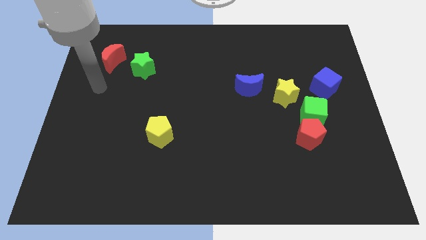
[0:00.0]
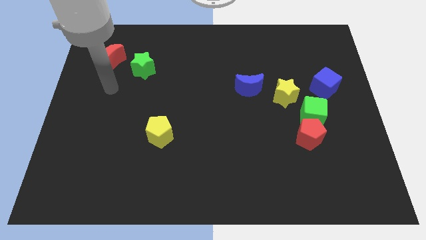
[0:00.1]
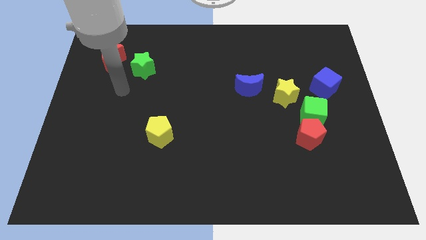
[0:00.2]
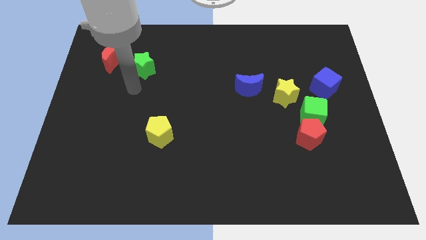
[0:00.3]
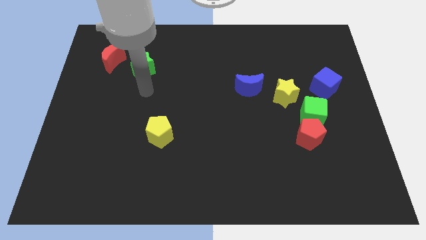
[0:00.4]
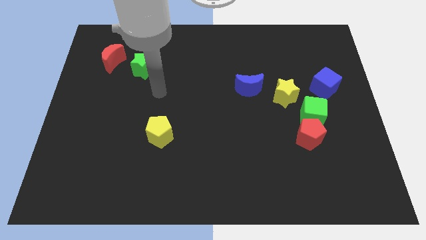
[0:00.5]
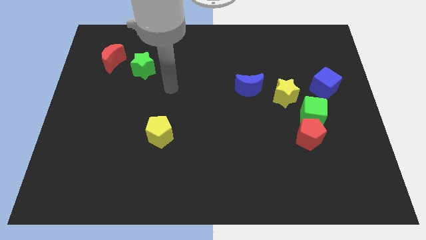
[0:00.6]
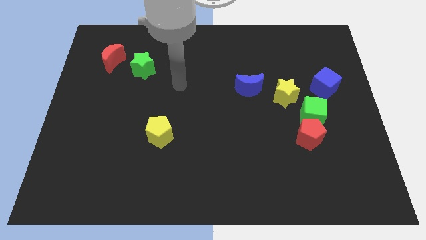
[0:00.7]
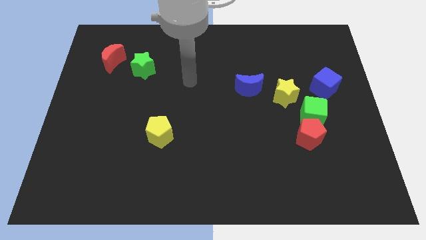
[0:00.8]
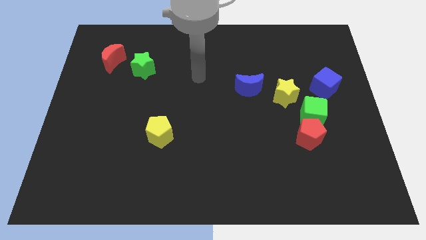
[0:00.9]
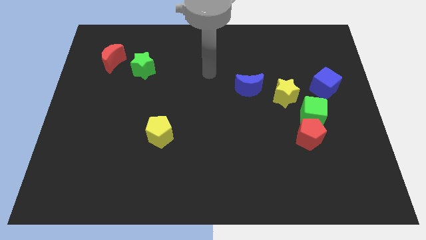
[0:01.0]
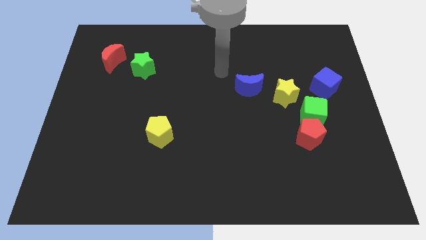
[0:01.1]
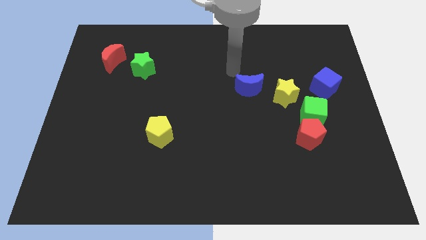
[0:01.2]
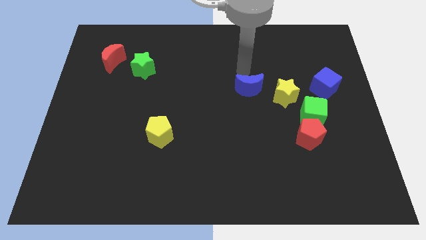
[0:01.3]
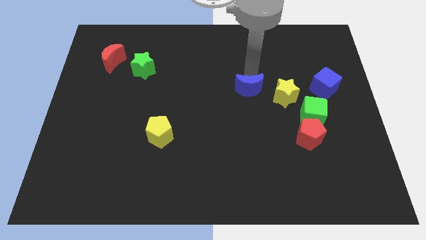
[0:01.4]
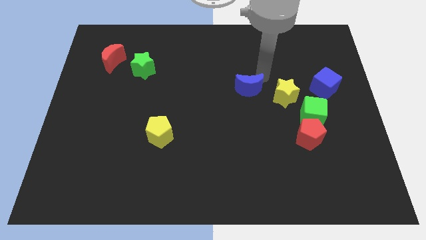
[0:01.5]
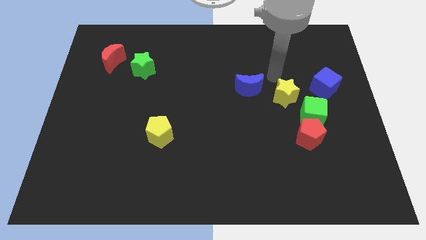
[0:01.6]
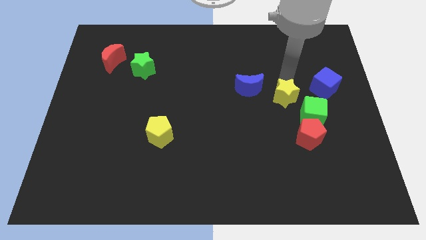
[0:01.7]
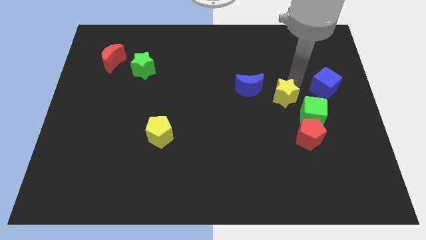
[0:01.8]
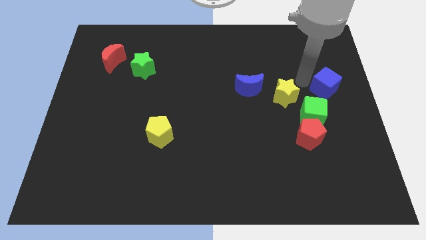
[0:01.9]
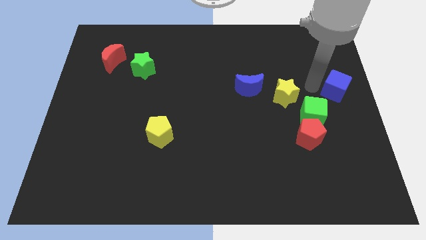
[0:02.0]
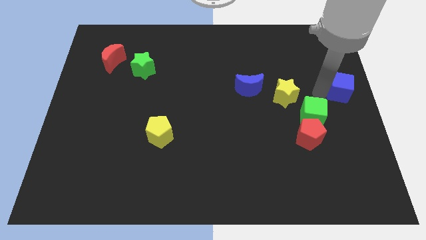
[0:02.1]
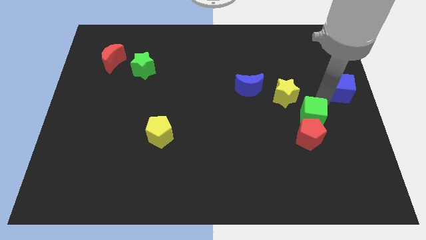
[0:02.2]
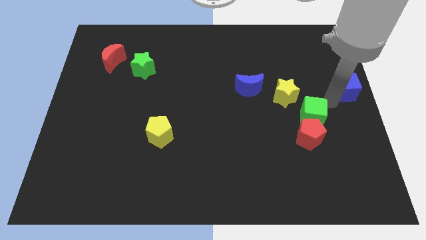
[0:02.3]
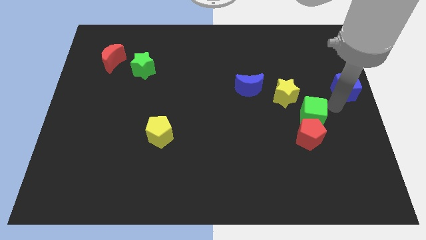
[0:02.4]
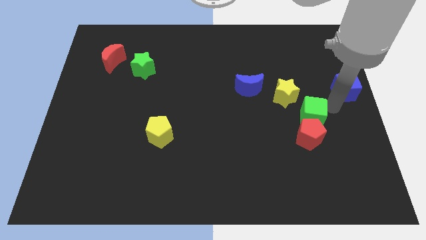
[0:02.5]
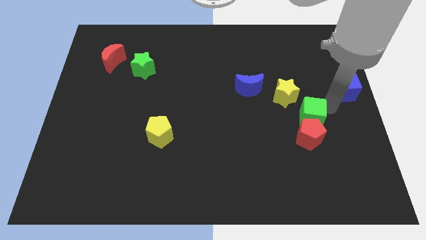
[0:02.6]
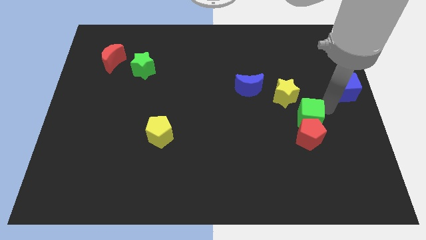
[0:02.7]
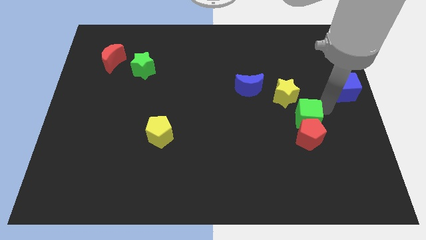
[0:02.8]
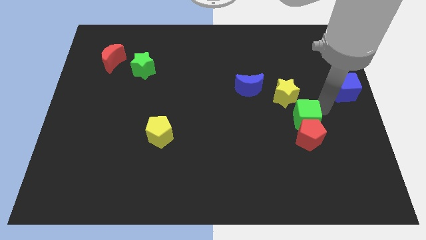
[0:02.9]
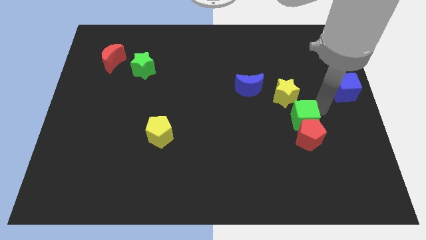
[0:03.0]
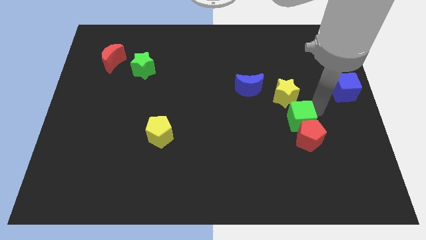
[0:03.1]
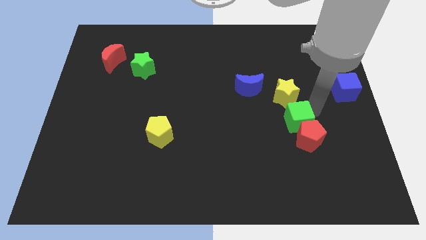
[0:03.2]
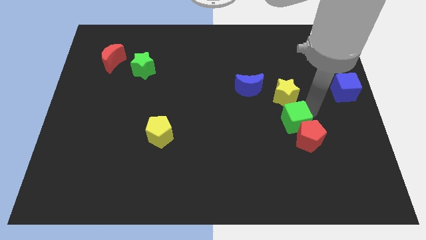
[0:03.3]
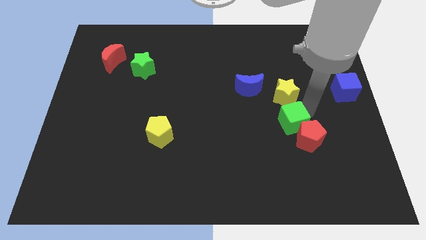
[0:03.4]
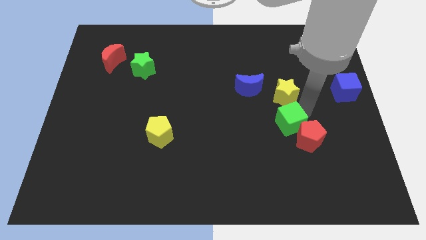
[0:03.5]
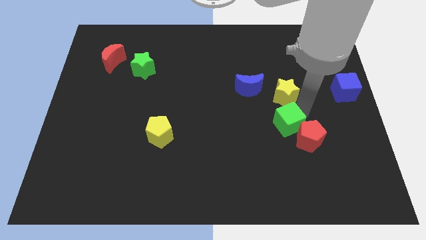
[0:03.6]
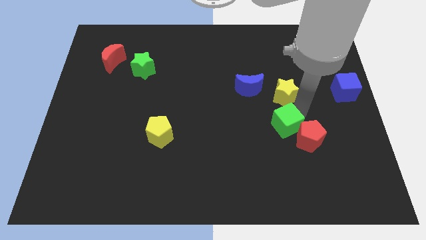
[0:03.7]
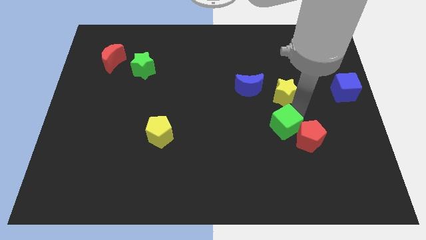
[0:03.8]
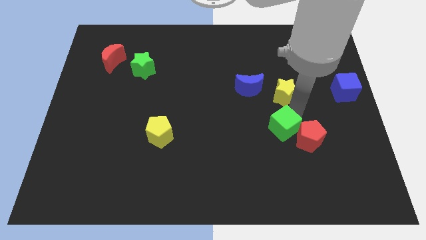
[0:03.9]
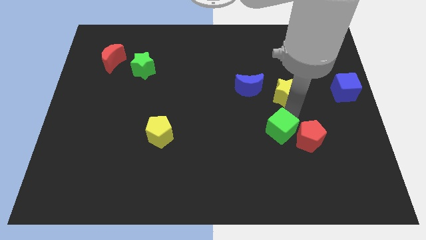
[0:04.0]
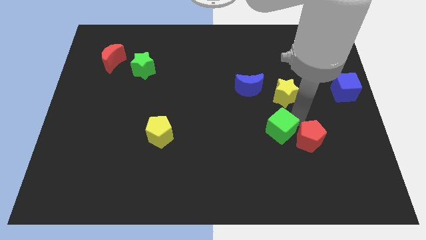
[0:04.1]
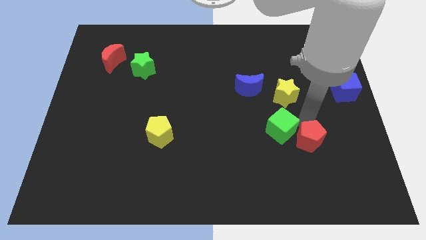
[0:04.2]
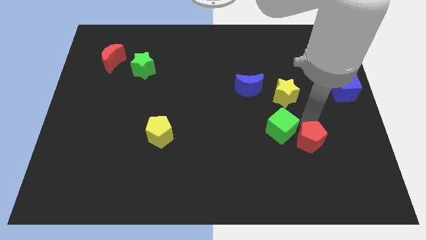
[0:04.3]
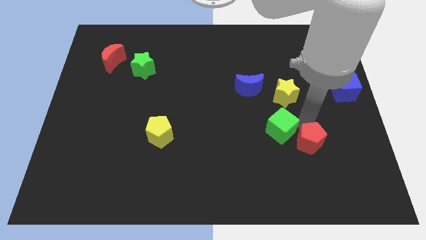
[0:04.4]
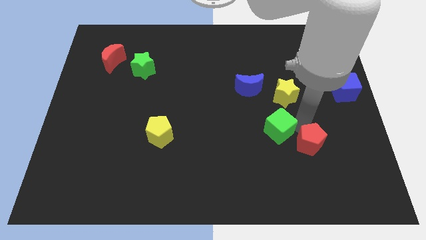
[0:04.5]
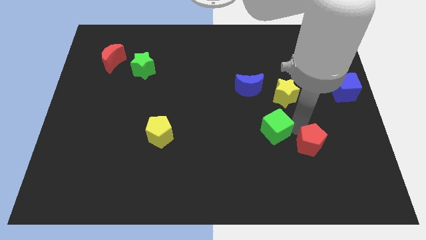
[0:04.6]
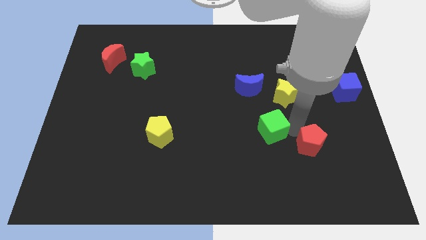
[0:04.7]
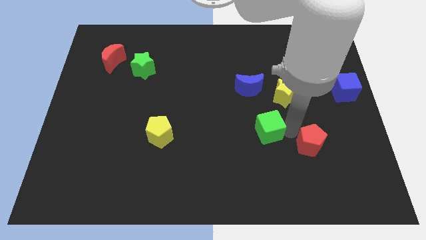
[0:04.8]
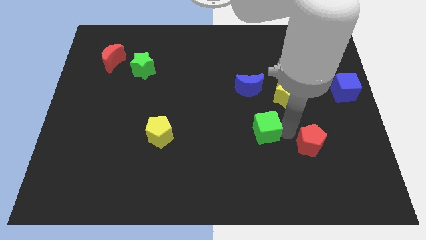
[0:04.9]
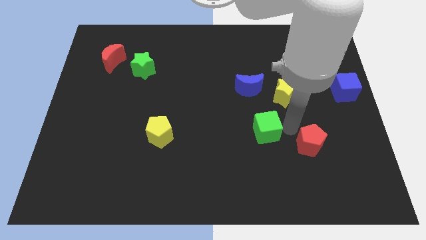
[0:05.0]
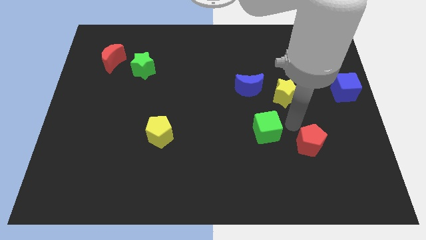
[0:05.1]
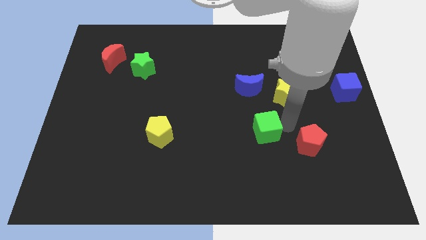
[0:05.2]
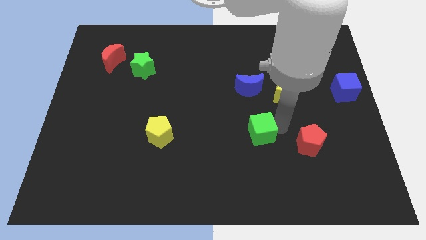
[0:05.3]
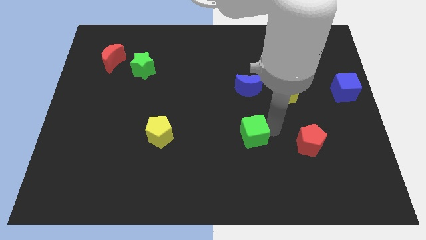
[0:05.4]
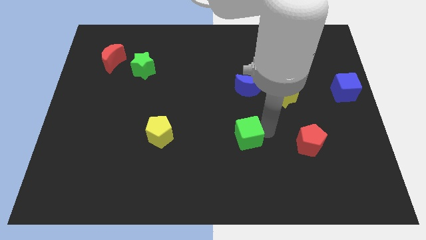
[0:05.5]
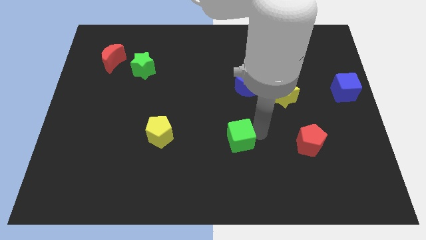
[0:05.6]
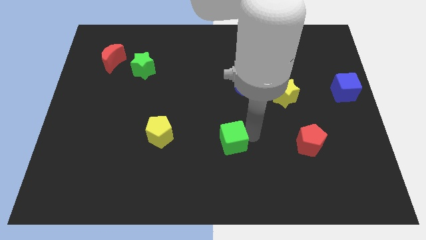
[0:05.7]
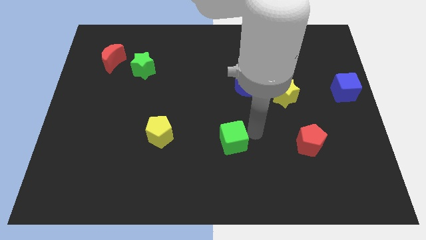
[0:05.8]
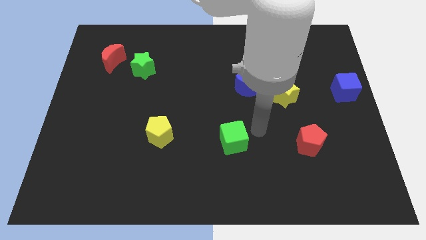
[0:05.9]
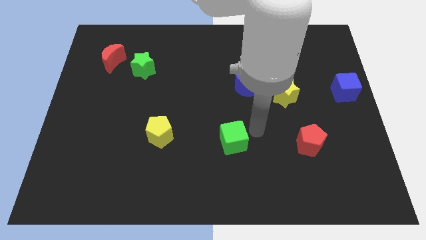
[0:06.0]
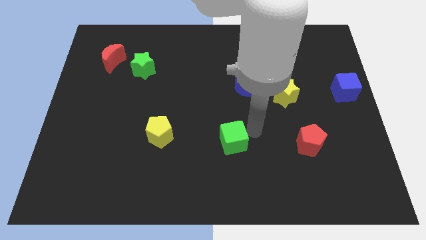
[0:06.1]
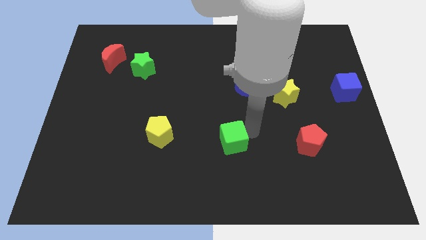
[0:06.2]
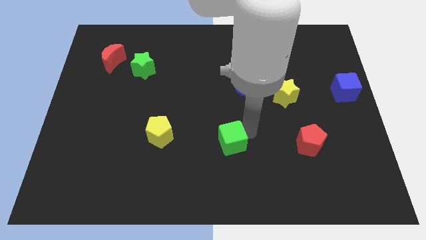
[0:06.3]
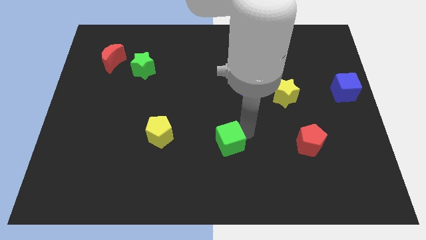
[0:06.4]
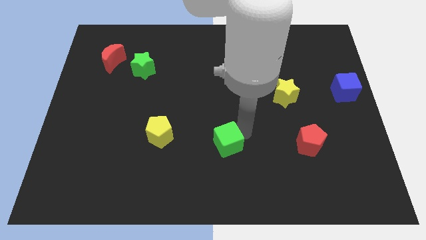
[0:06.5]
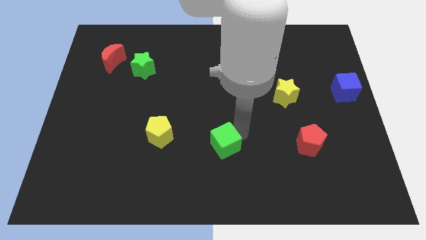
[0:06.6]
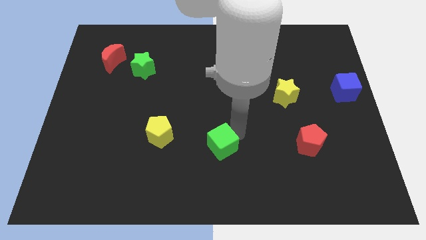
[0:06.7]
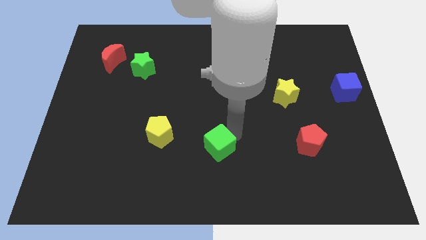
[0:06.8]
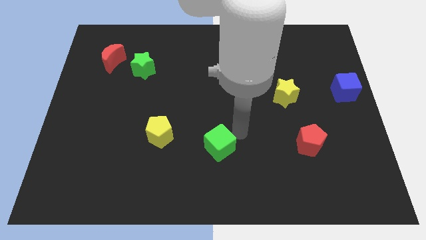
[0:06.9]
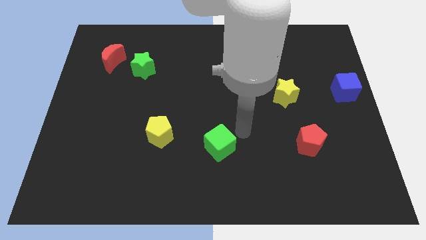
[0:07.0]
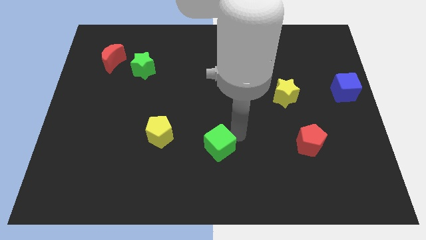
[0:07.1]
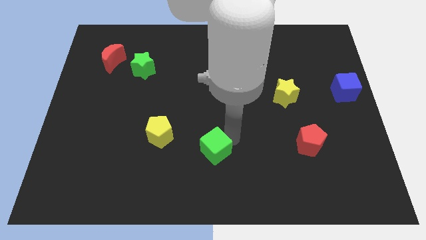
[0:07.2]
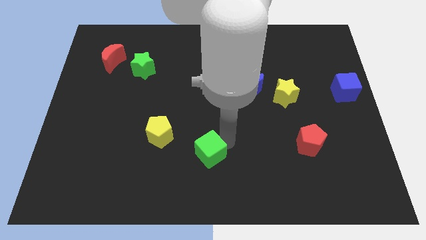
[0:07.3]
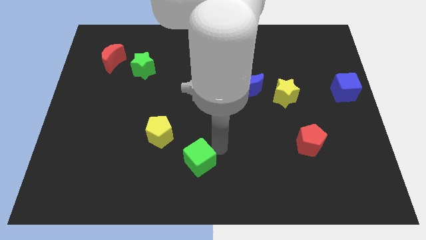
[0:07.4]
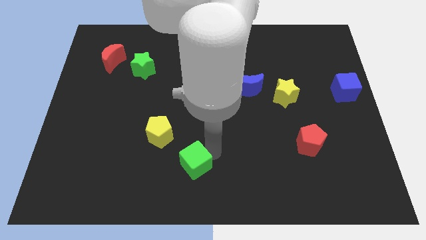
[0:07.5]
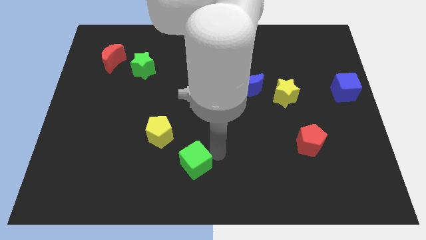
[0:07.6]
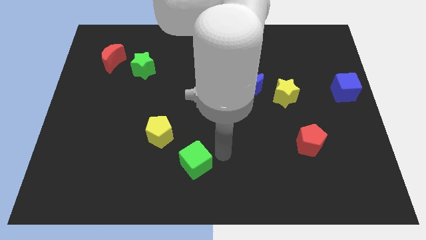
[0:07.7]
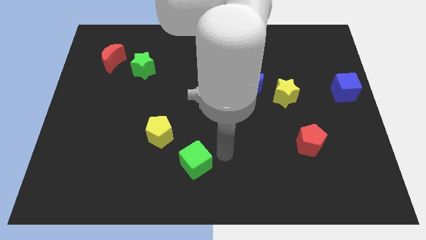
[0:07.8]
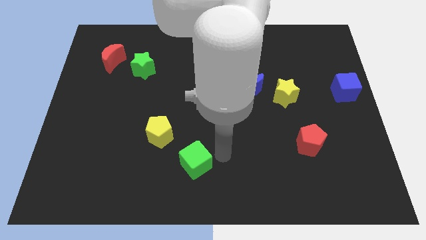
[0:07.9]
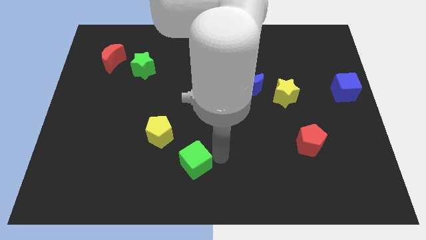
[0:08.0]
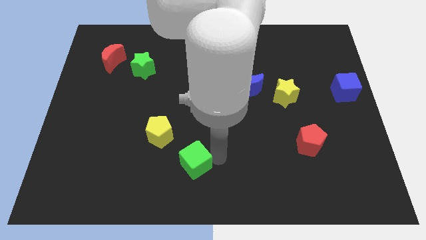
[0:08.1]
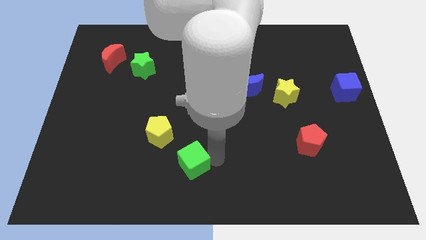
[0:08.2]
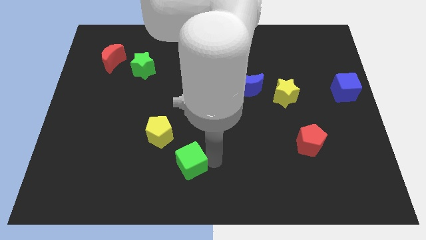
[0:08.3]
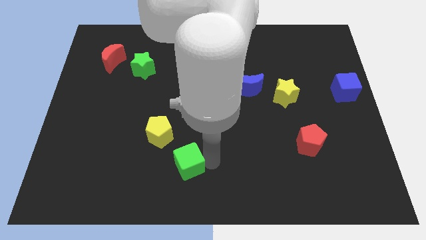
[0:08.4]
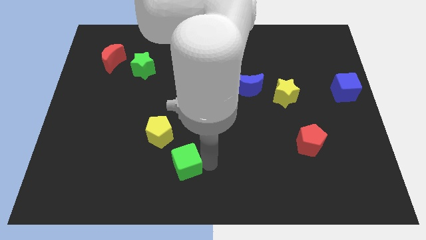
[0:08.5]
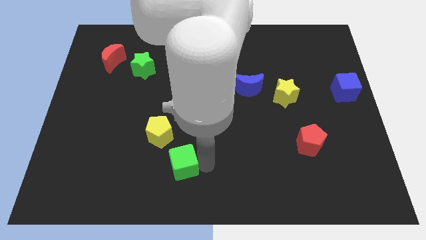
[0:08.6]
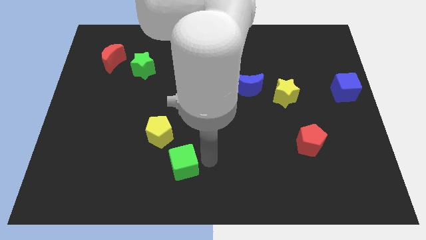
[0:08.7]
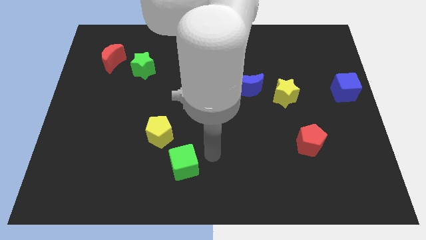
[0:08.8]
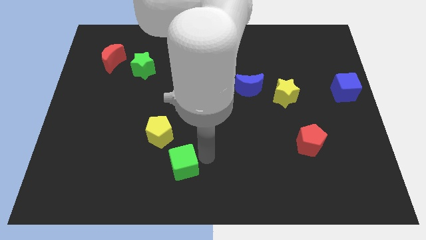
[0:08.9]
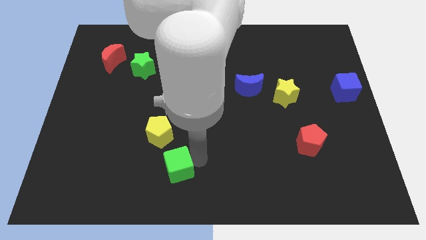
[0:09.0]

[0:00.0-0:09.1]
put the green cube below the yellow pentagon
